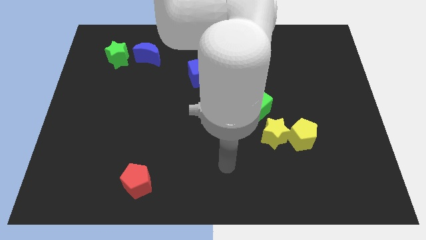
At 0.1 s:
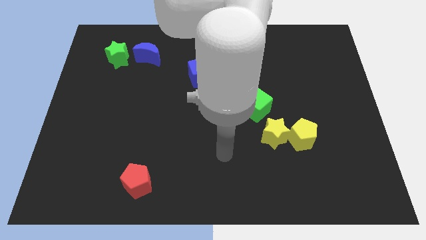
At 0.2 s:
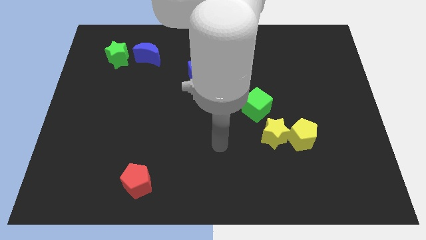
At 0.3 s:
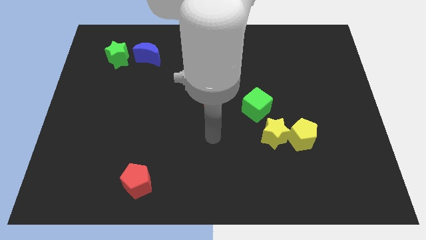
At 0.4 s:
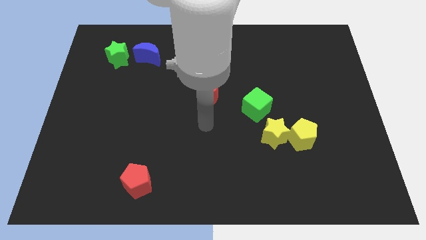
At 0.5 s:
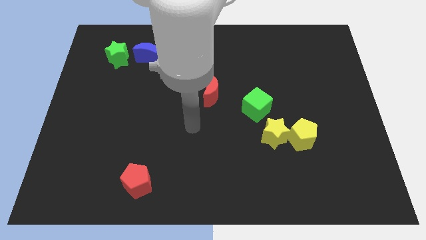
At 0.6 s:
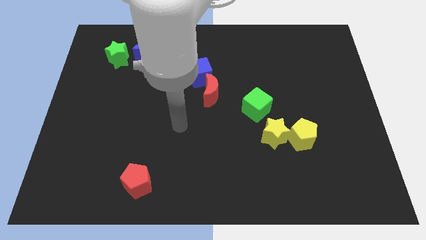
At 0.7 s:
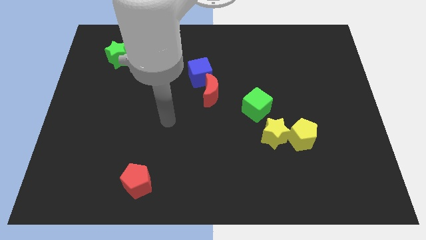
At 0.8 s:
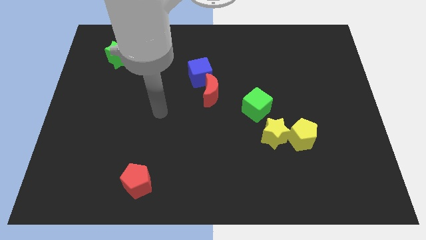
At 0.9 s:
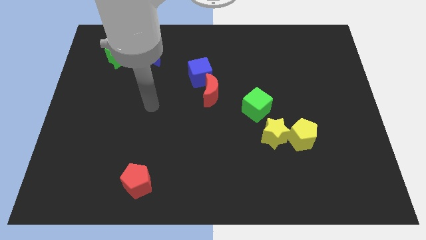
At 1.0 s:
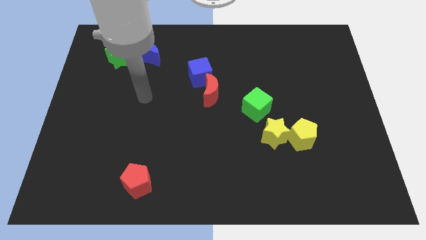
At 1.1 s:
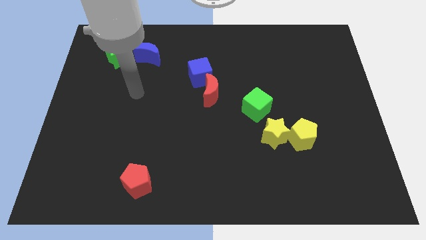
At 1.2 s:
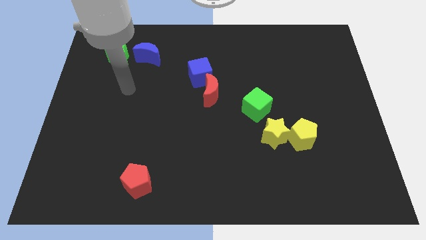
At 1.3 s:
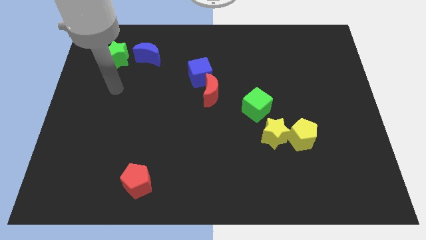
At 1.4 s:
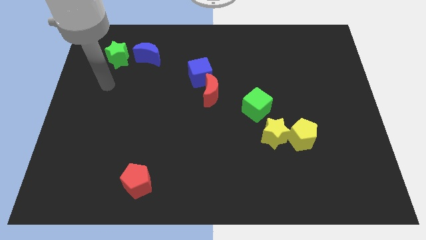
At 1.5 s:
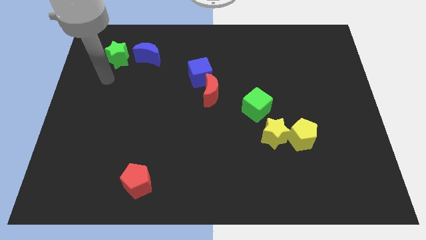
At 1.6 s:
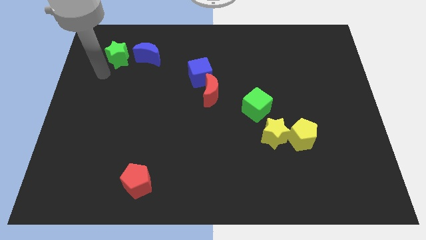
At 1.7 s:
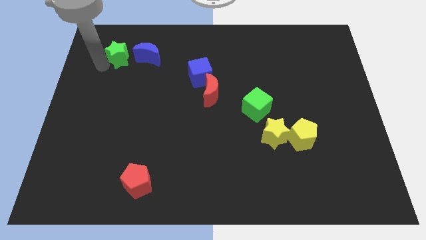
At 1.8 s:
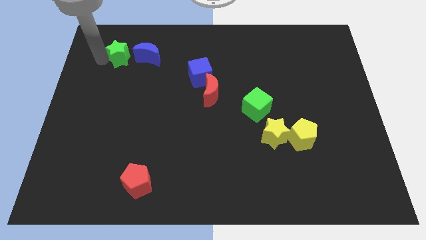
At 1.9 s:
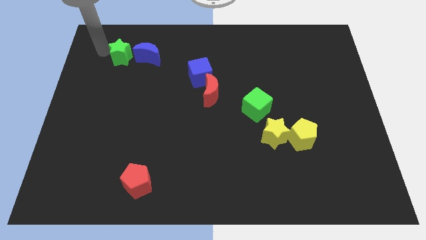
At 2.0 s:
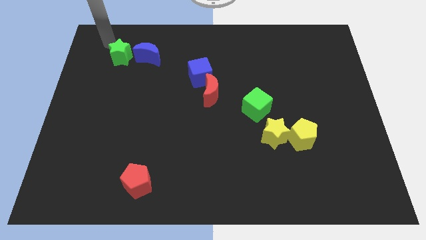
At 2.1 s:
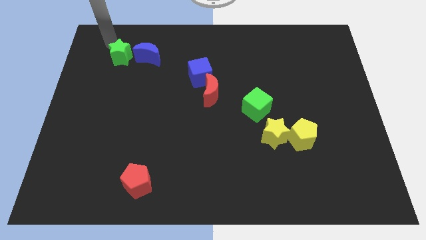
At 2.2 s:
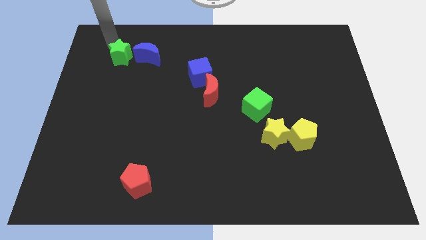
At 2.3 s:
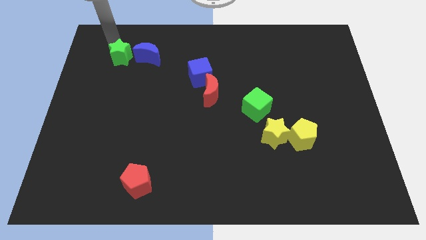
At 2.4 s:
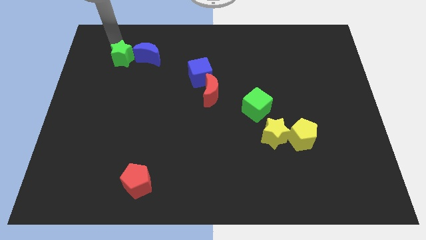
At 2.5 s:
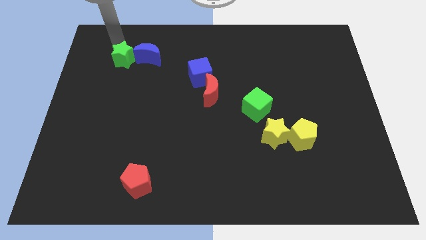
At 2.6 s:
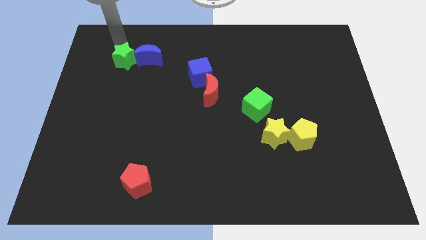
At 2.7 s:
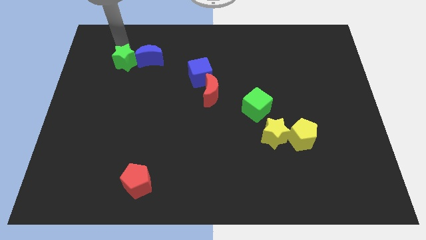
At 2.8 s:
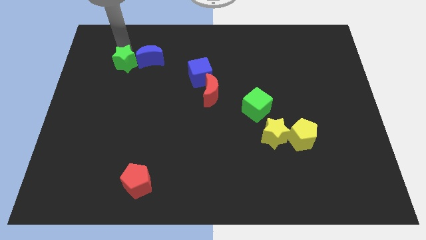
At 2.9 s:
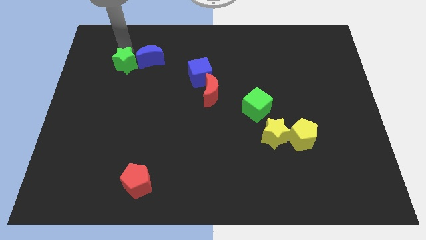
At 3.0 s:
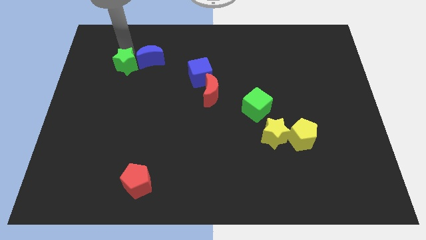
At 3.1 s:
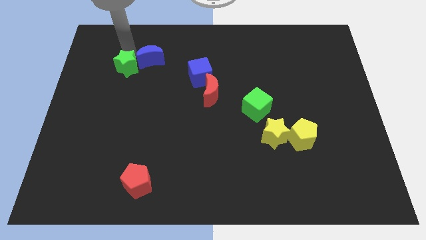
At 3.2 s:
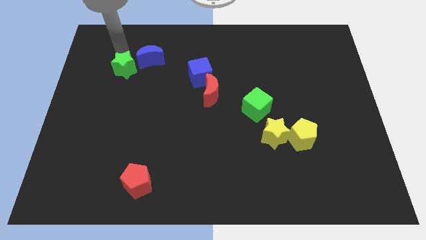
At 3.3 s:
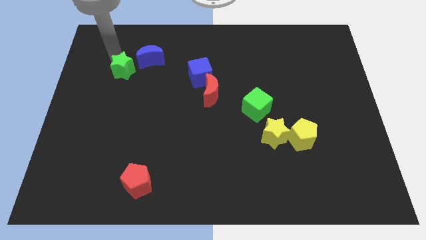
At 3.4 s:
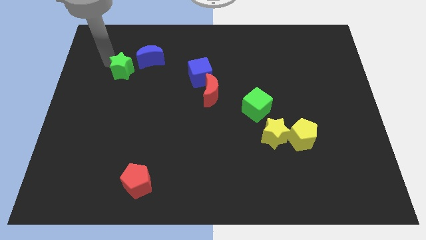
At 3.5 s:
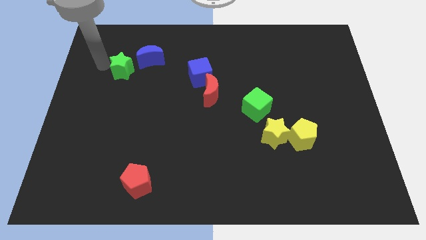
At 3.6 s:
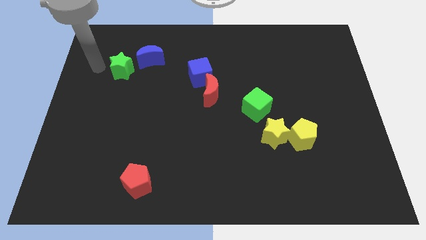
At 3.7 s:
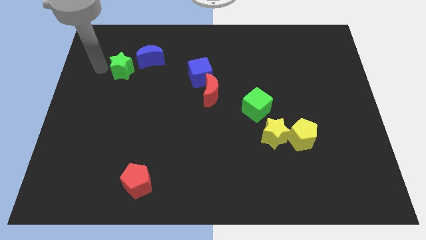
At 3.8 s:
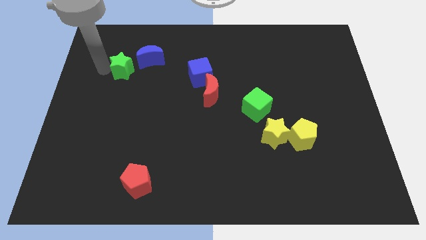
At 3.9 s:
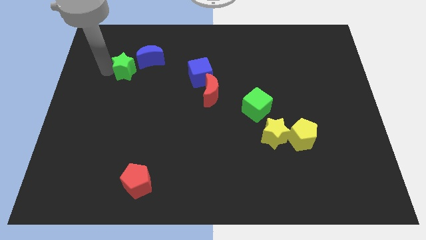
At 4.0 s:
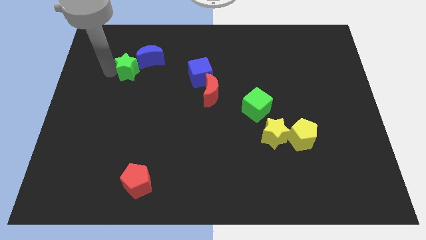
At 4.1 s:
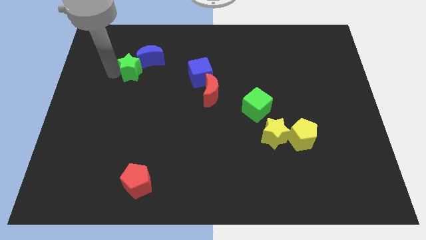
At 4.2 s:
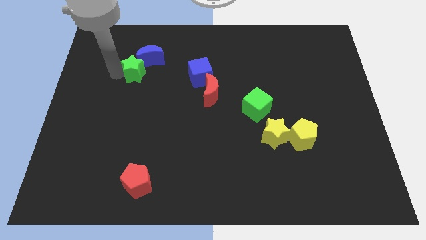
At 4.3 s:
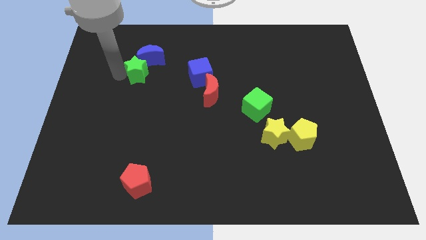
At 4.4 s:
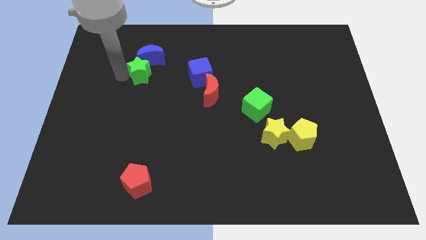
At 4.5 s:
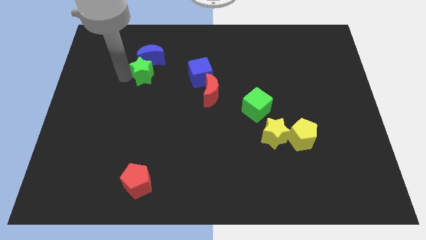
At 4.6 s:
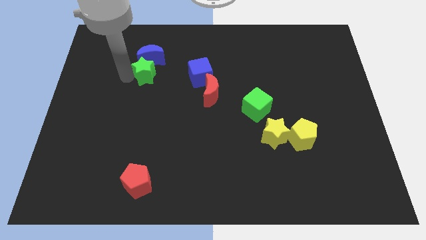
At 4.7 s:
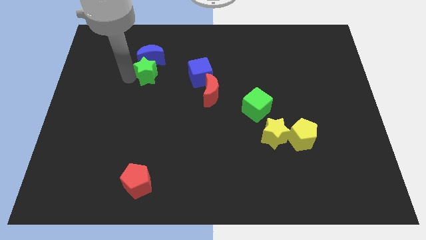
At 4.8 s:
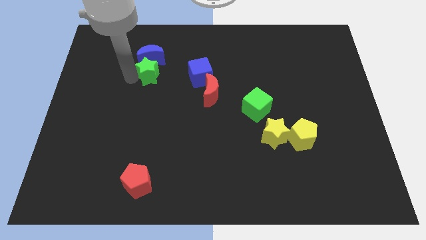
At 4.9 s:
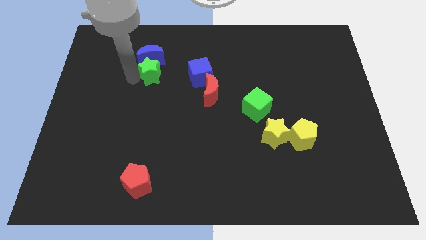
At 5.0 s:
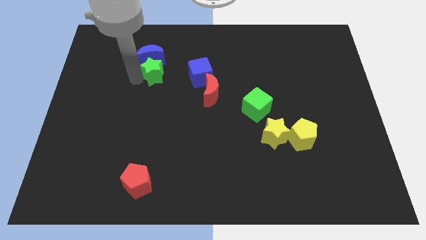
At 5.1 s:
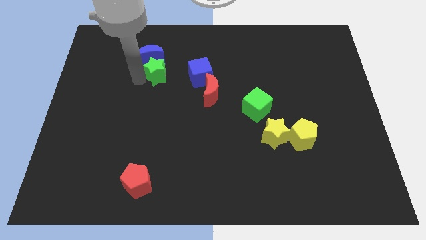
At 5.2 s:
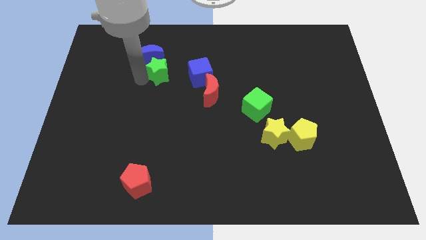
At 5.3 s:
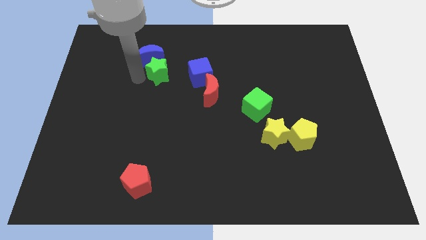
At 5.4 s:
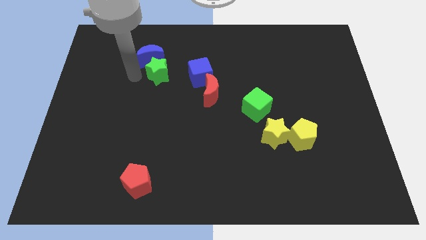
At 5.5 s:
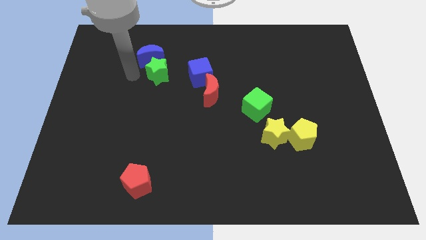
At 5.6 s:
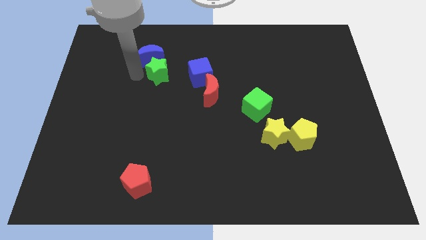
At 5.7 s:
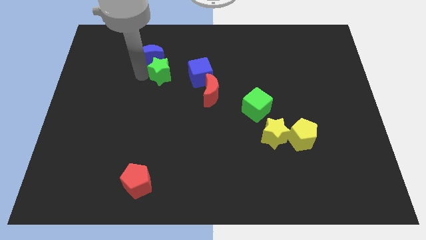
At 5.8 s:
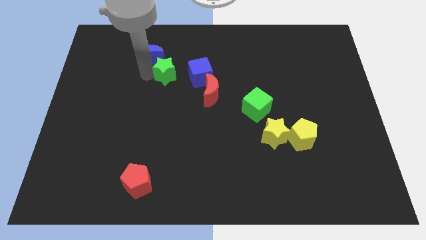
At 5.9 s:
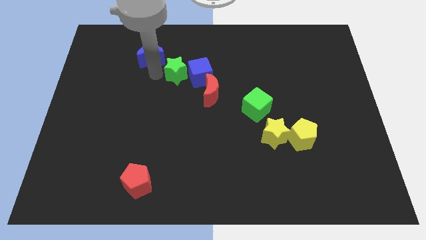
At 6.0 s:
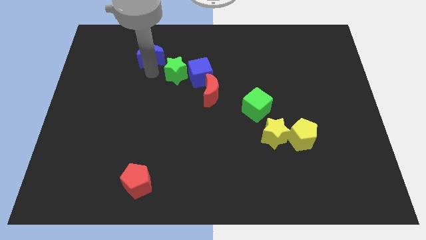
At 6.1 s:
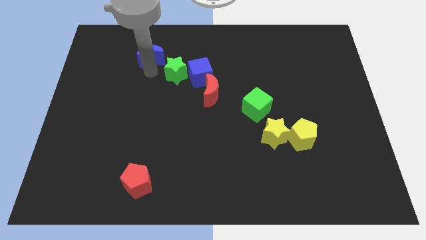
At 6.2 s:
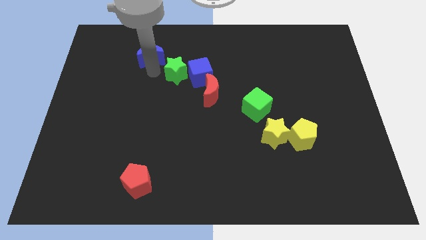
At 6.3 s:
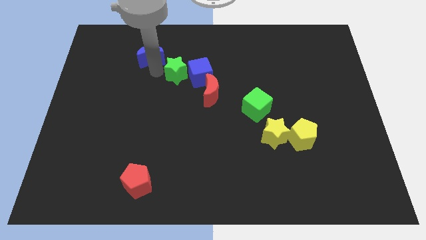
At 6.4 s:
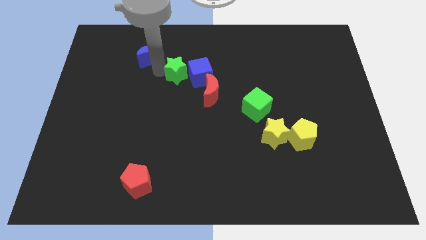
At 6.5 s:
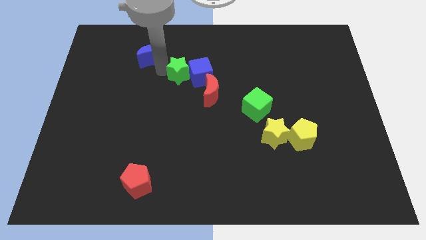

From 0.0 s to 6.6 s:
move the green star to the blue cube

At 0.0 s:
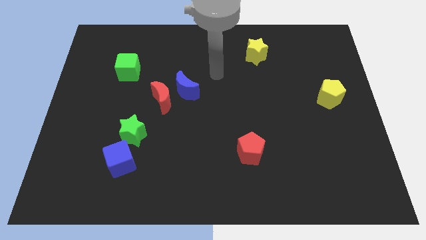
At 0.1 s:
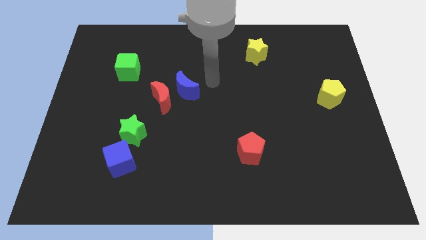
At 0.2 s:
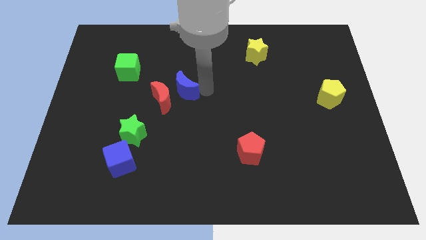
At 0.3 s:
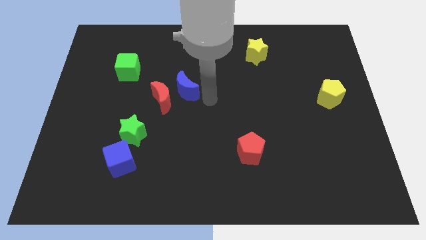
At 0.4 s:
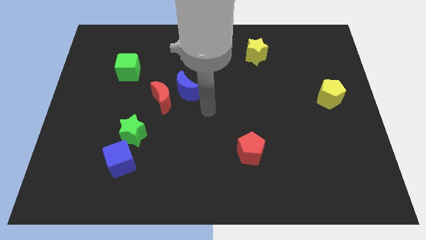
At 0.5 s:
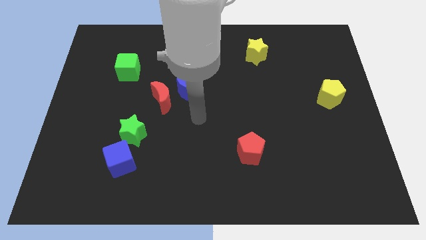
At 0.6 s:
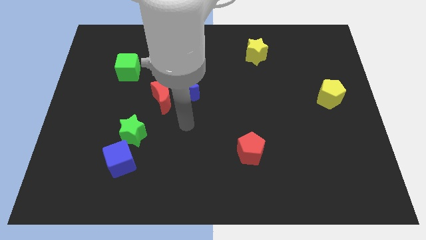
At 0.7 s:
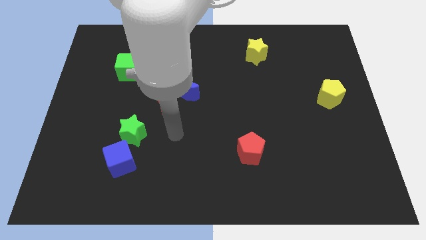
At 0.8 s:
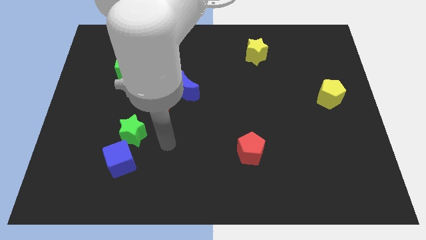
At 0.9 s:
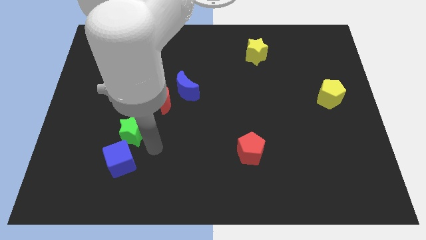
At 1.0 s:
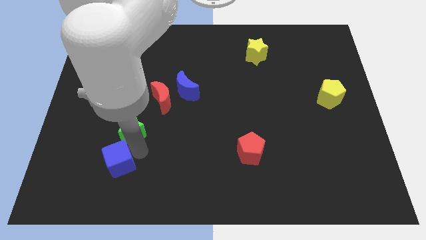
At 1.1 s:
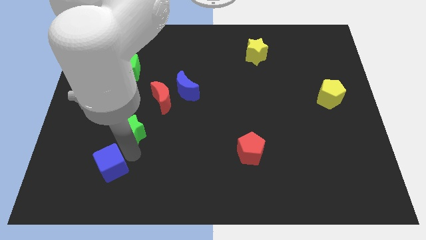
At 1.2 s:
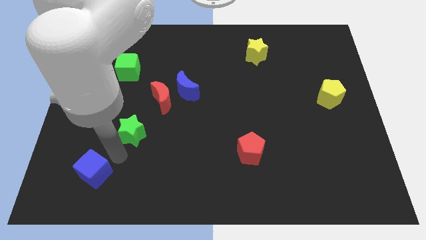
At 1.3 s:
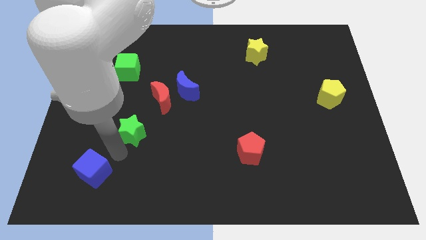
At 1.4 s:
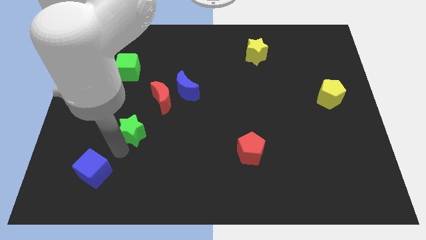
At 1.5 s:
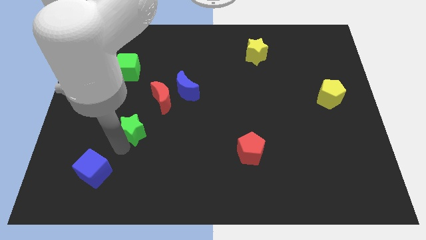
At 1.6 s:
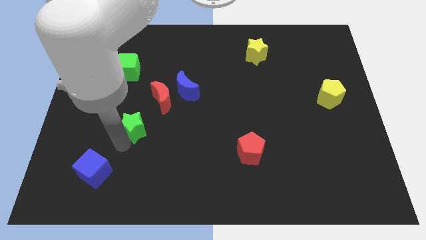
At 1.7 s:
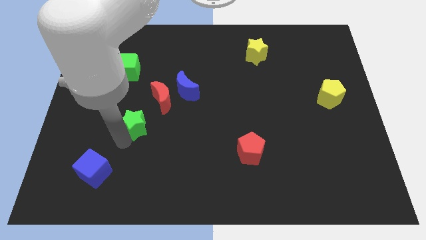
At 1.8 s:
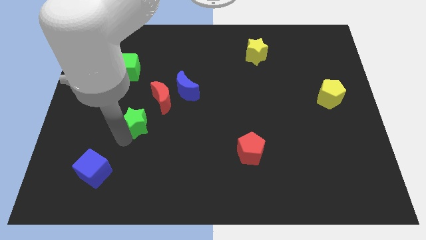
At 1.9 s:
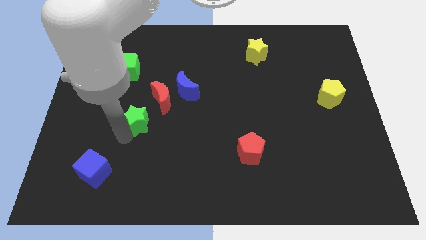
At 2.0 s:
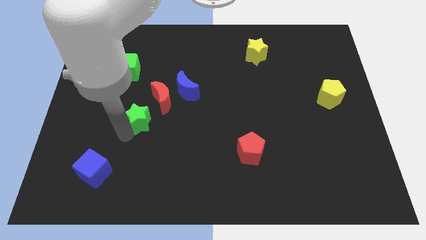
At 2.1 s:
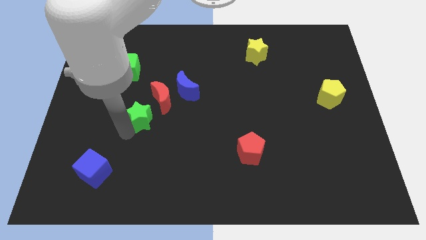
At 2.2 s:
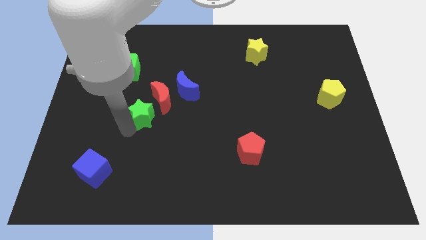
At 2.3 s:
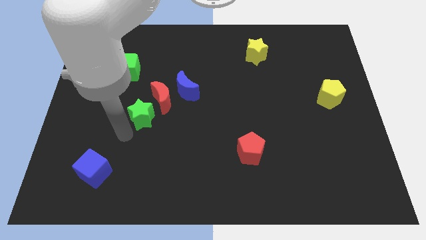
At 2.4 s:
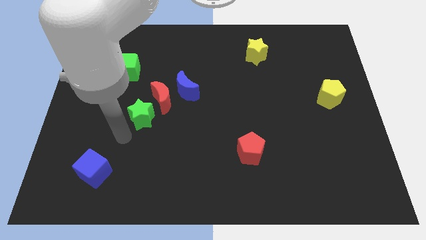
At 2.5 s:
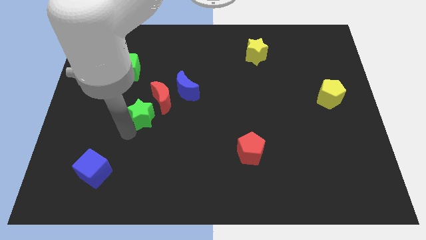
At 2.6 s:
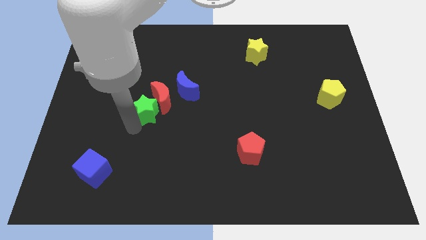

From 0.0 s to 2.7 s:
move the green star to the red moon
